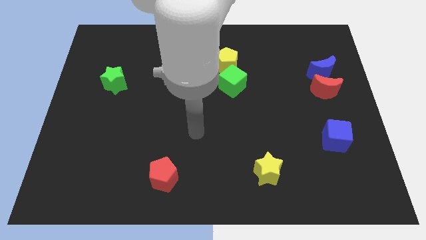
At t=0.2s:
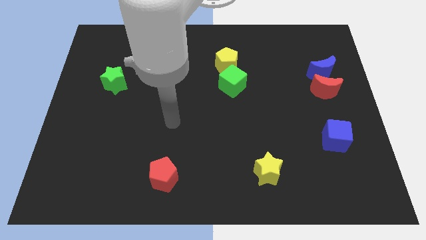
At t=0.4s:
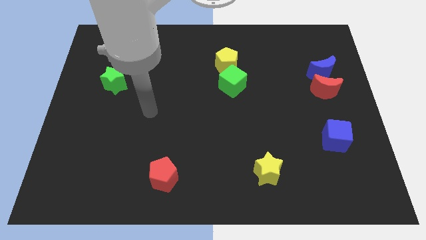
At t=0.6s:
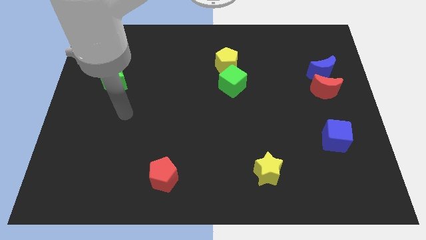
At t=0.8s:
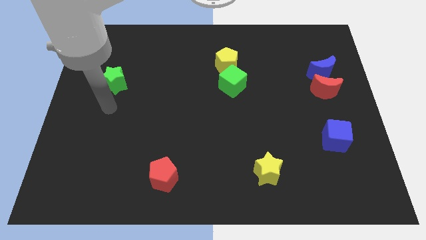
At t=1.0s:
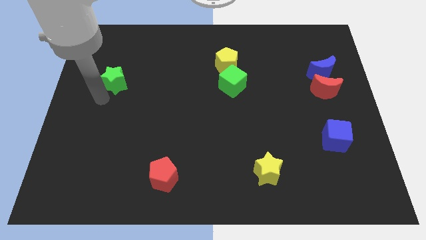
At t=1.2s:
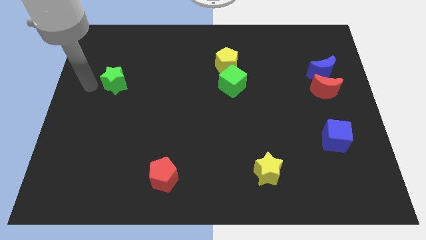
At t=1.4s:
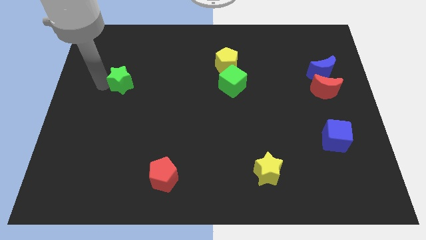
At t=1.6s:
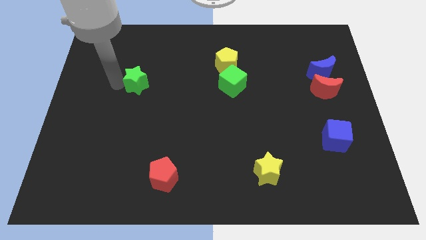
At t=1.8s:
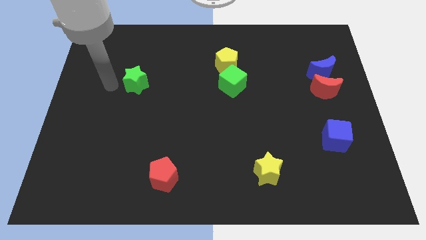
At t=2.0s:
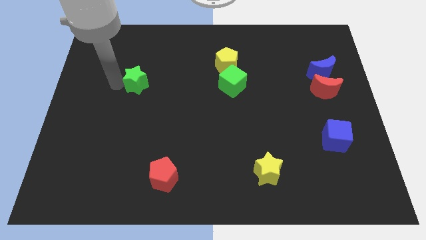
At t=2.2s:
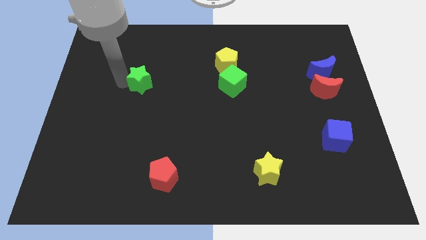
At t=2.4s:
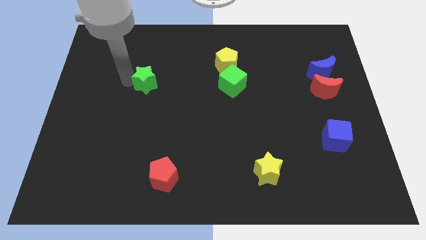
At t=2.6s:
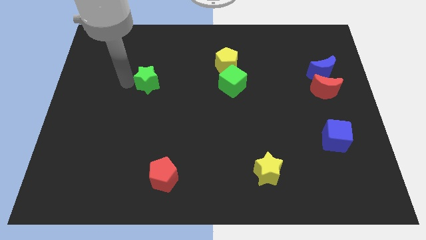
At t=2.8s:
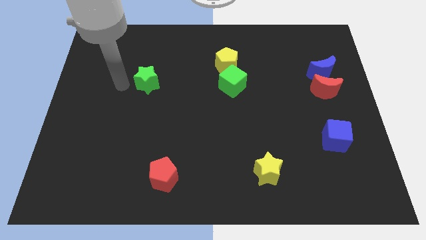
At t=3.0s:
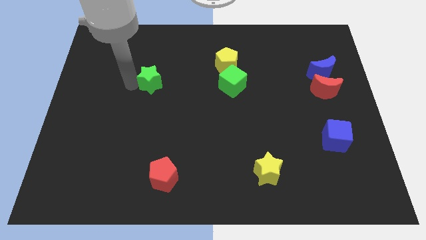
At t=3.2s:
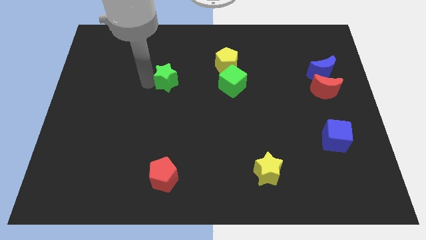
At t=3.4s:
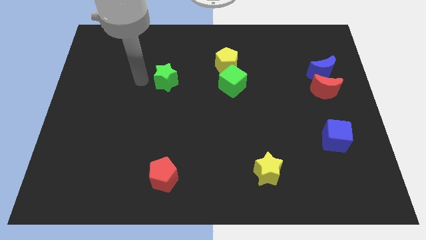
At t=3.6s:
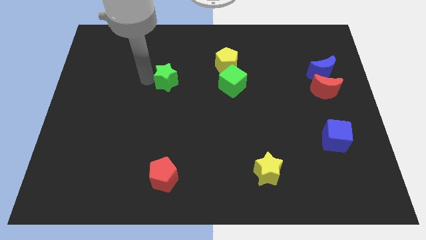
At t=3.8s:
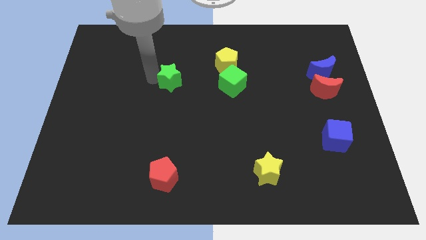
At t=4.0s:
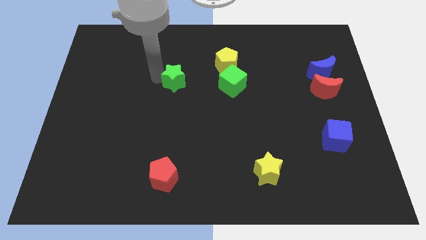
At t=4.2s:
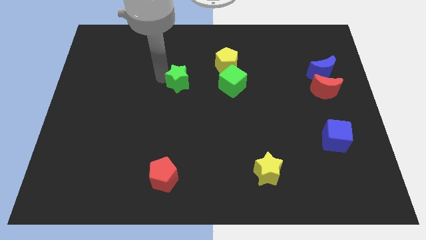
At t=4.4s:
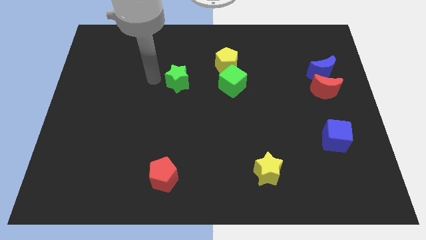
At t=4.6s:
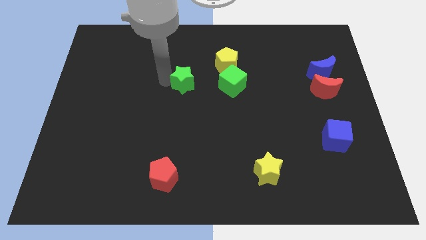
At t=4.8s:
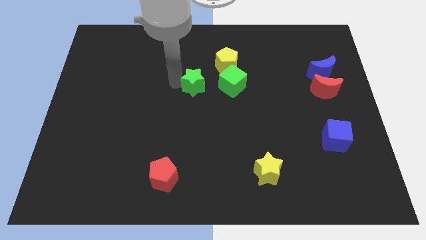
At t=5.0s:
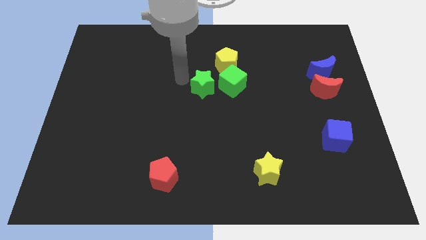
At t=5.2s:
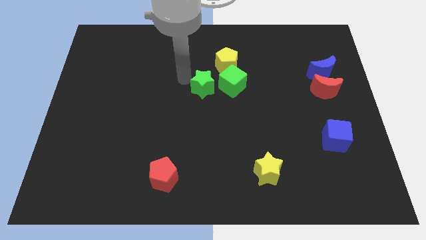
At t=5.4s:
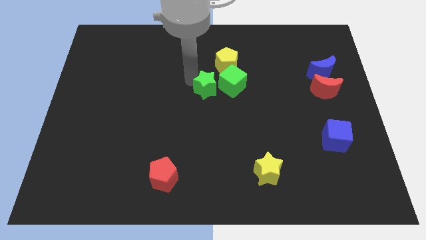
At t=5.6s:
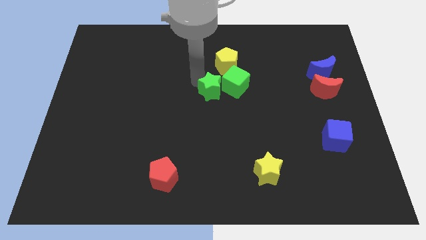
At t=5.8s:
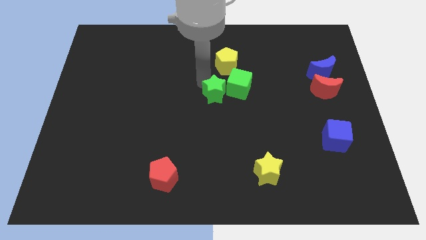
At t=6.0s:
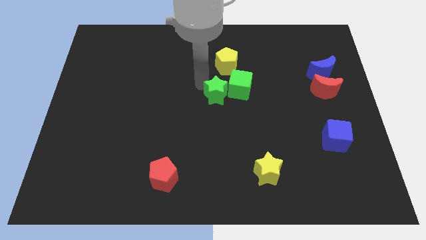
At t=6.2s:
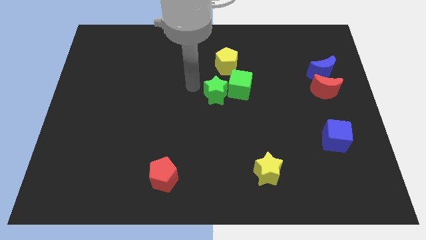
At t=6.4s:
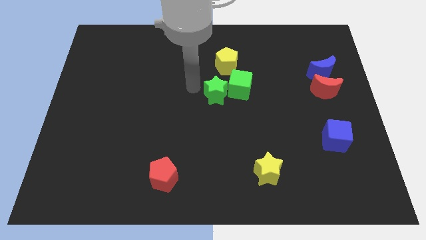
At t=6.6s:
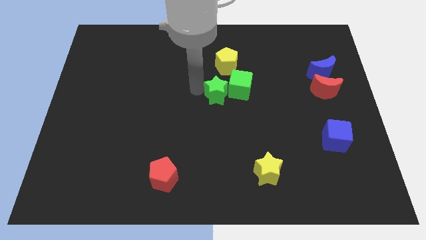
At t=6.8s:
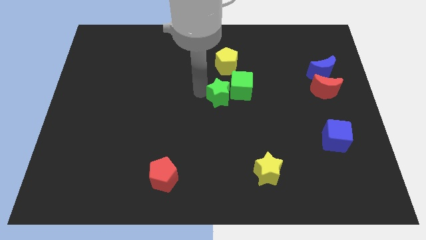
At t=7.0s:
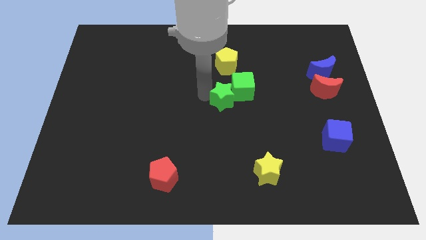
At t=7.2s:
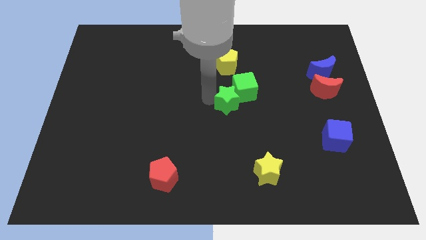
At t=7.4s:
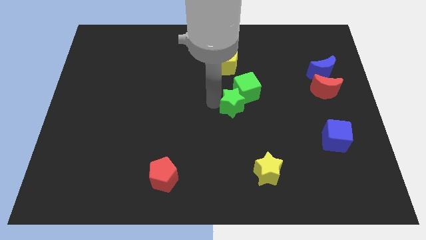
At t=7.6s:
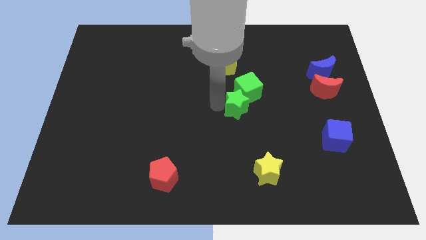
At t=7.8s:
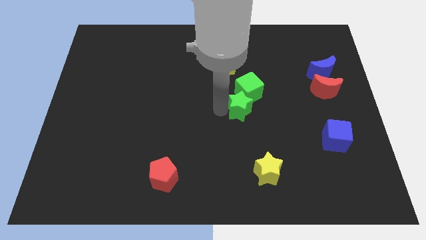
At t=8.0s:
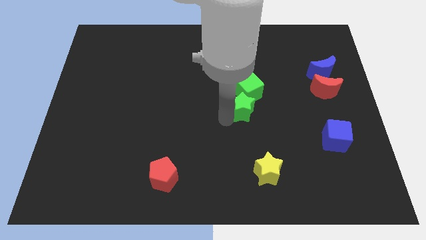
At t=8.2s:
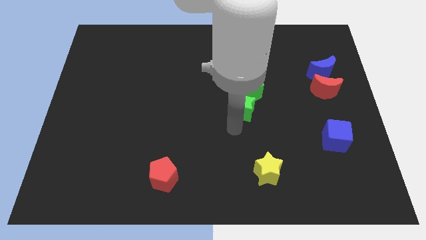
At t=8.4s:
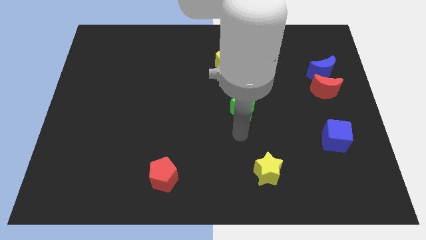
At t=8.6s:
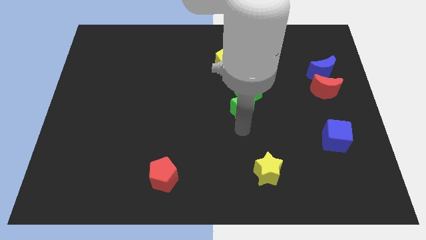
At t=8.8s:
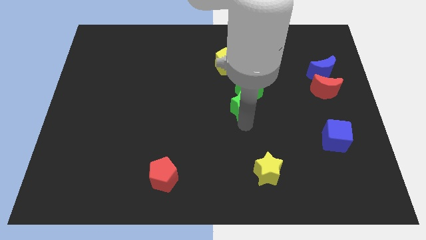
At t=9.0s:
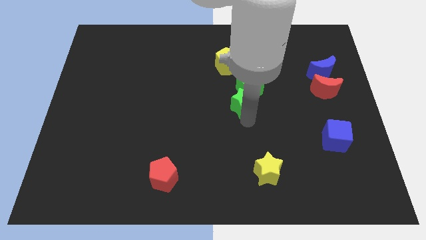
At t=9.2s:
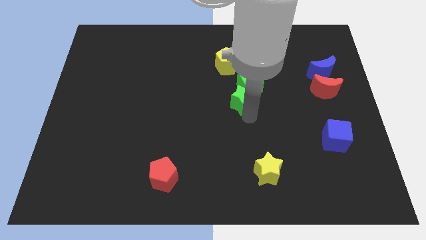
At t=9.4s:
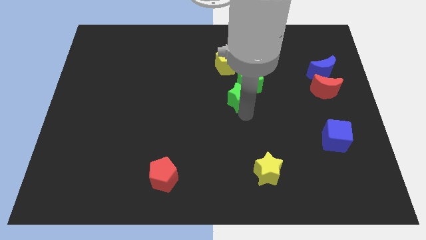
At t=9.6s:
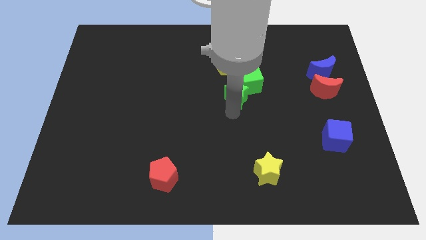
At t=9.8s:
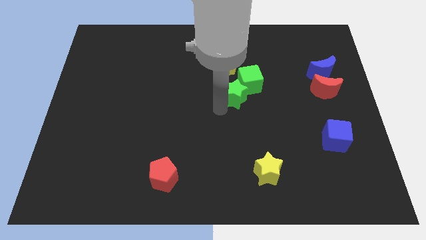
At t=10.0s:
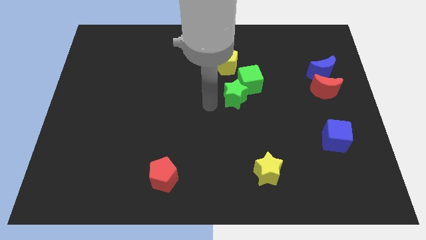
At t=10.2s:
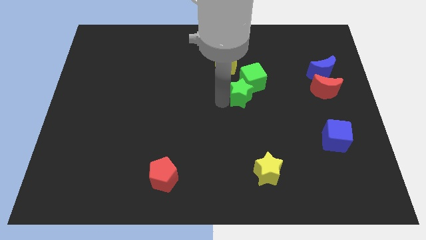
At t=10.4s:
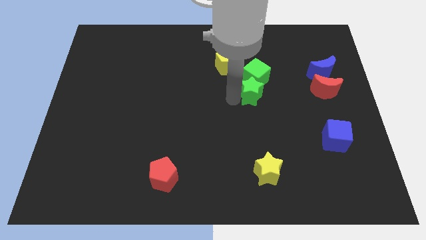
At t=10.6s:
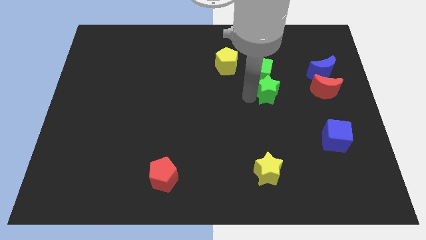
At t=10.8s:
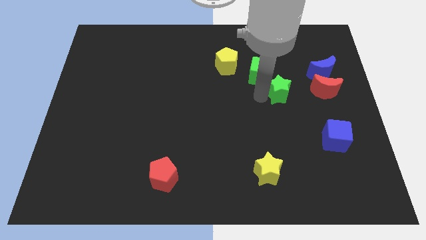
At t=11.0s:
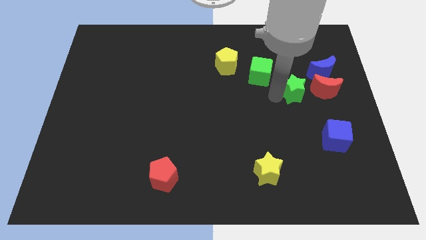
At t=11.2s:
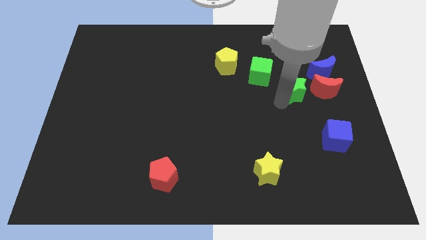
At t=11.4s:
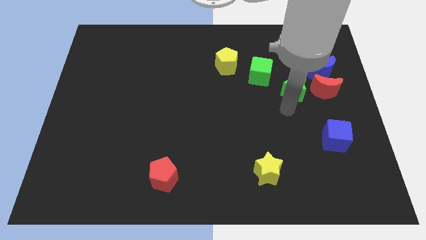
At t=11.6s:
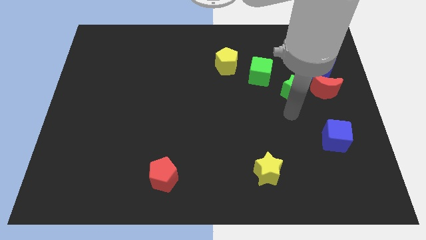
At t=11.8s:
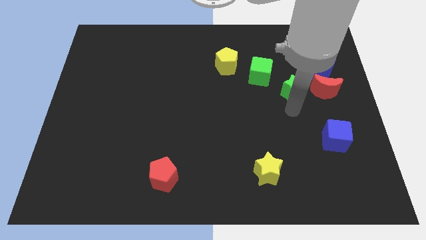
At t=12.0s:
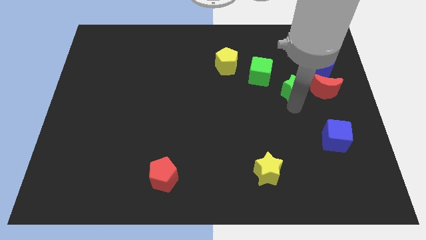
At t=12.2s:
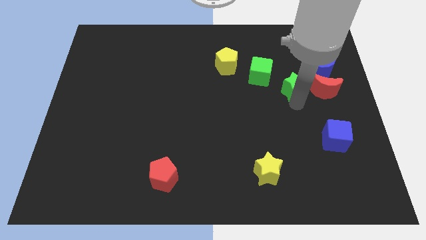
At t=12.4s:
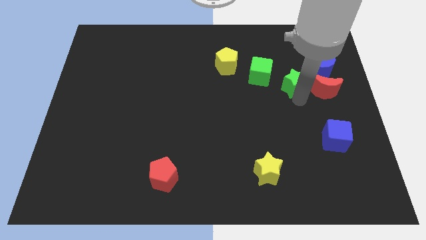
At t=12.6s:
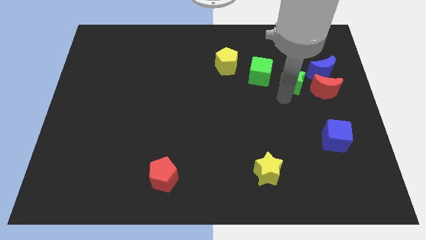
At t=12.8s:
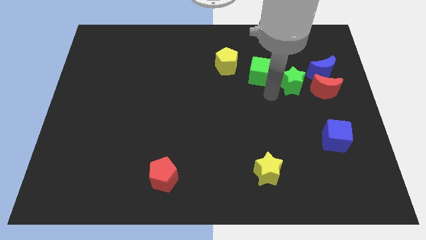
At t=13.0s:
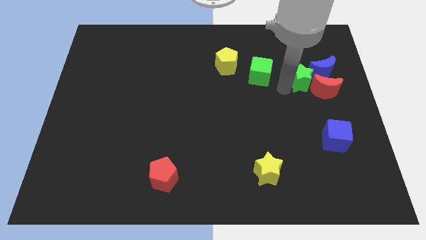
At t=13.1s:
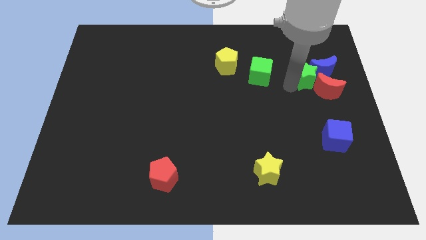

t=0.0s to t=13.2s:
push the green star towards the blue moon

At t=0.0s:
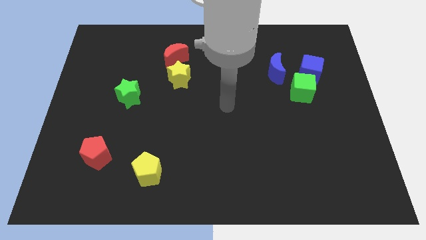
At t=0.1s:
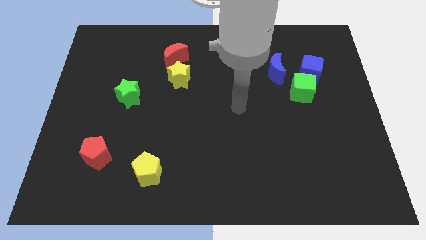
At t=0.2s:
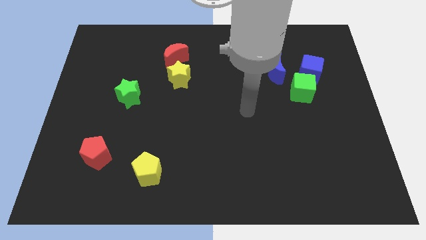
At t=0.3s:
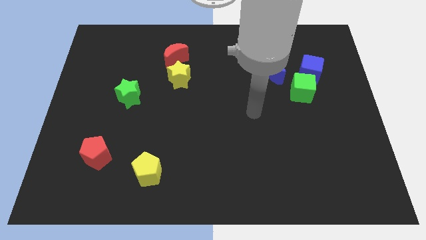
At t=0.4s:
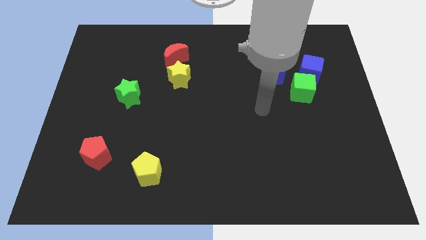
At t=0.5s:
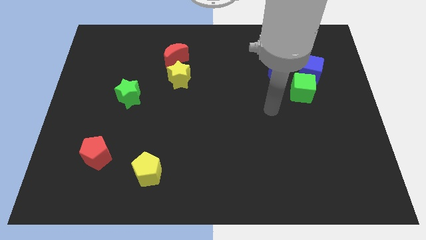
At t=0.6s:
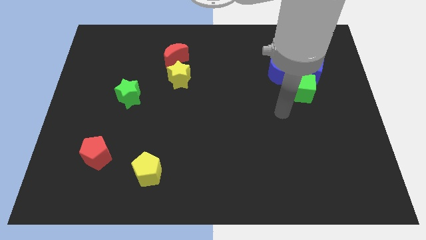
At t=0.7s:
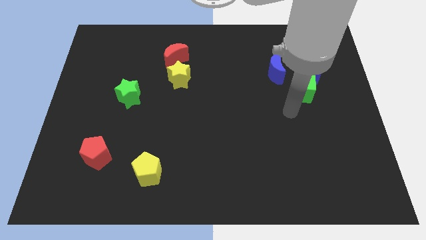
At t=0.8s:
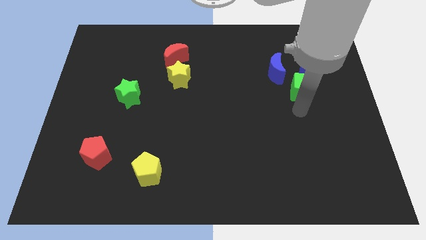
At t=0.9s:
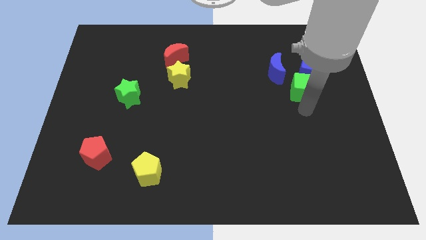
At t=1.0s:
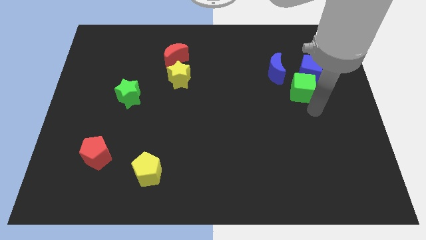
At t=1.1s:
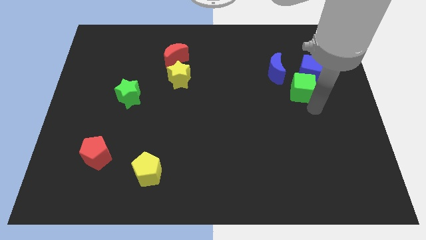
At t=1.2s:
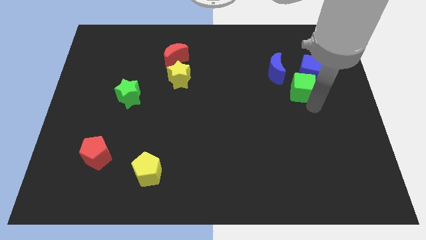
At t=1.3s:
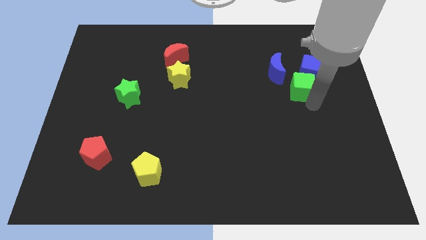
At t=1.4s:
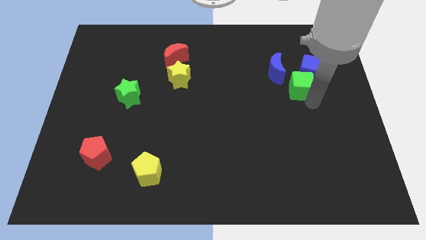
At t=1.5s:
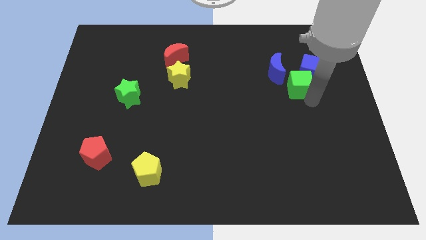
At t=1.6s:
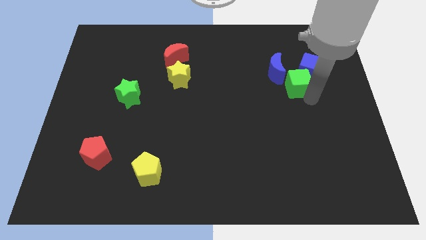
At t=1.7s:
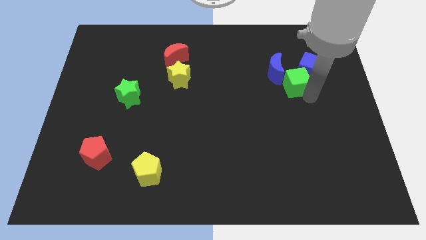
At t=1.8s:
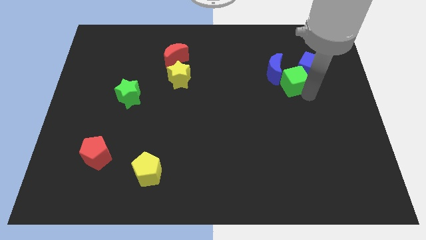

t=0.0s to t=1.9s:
move the green cube towards the blue moon
